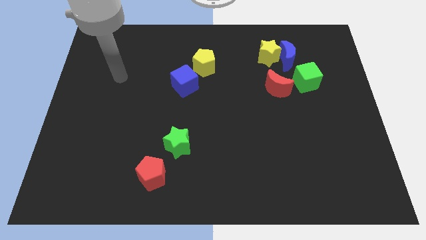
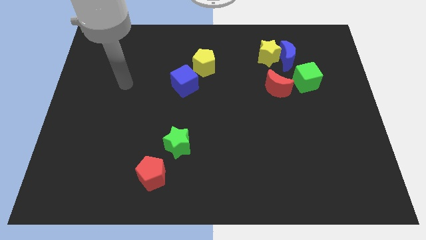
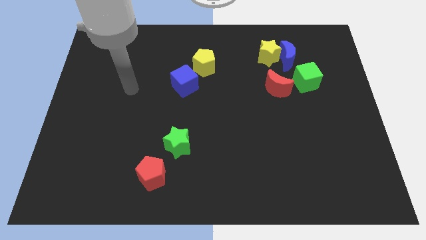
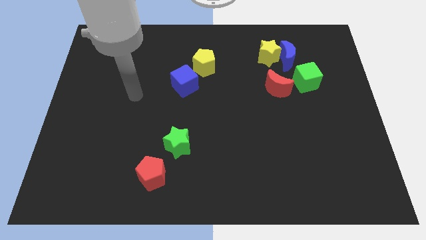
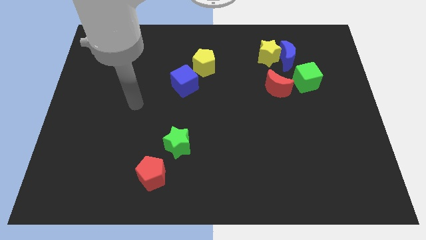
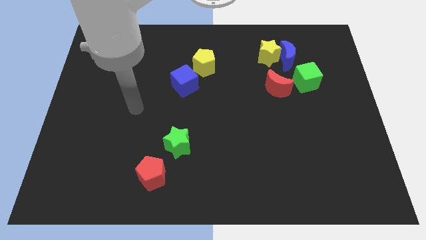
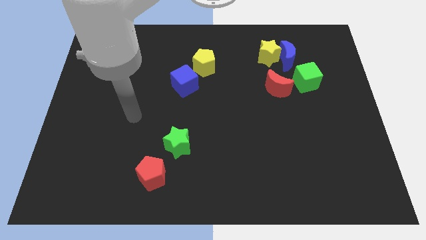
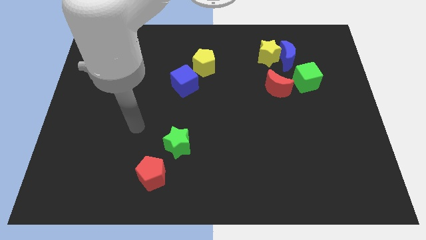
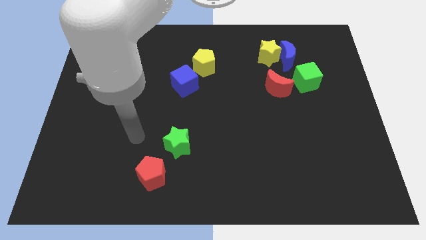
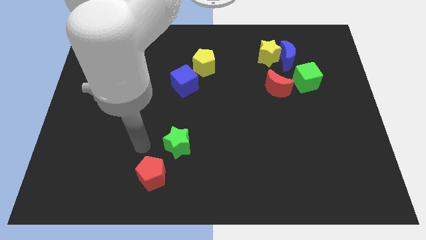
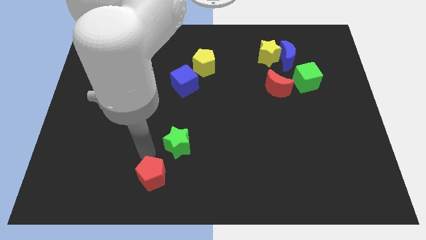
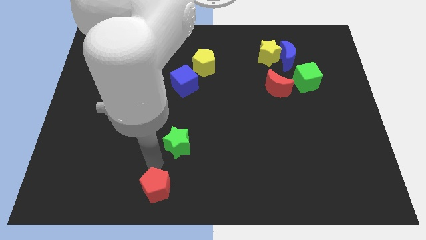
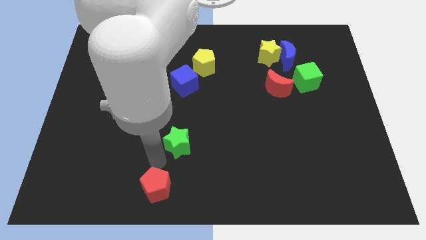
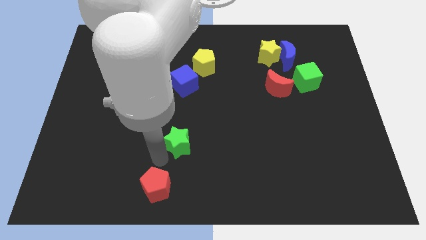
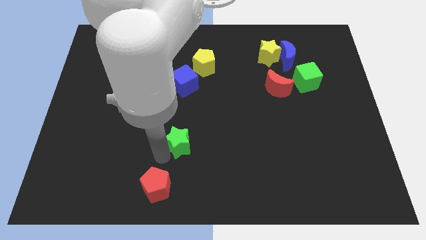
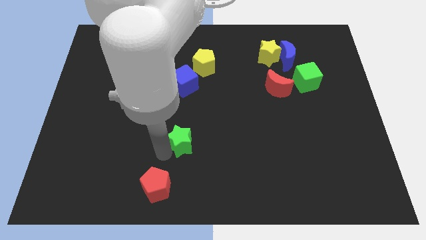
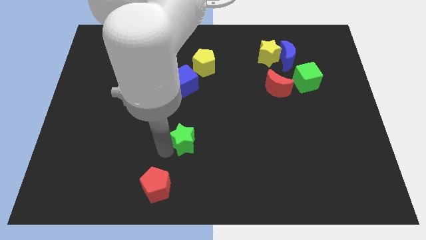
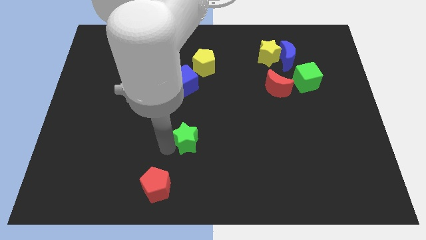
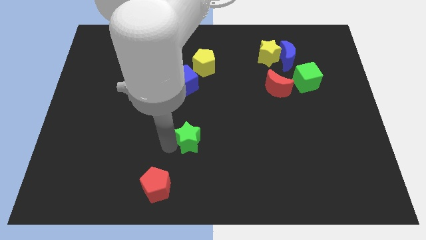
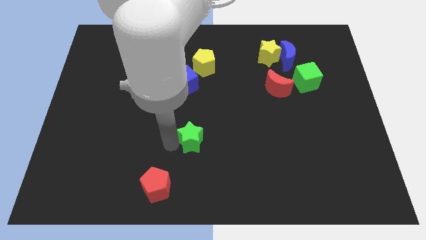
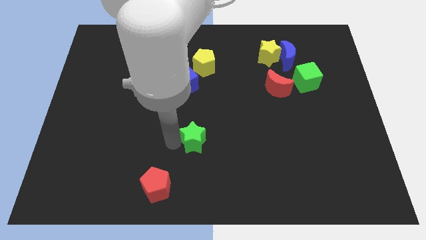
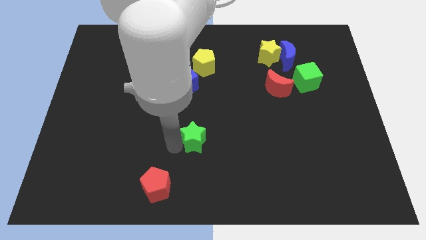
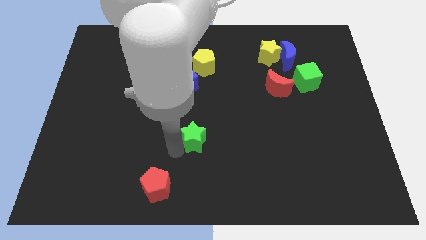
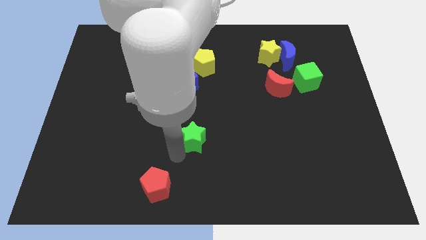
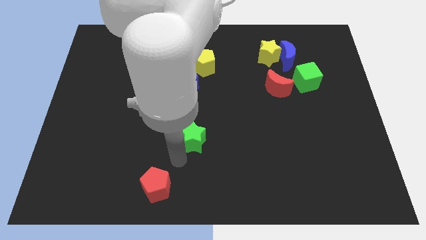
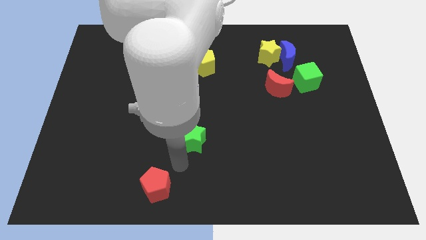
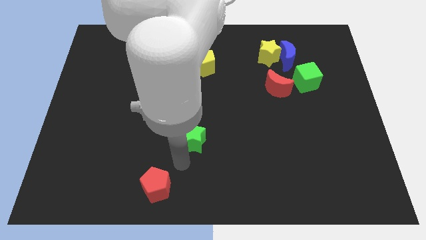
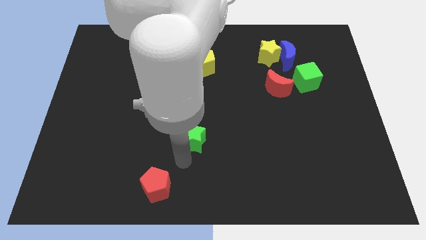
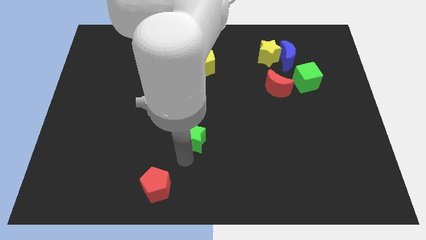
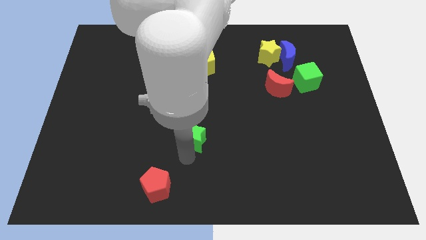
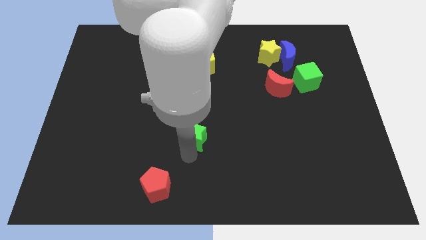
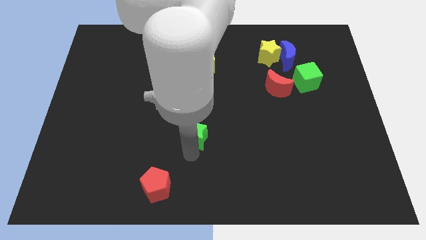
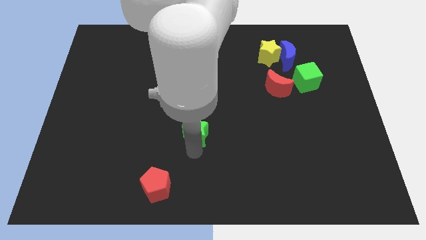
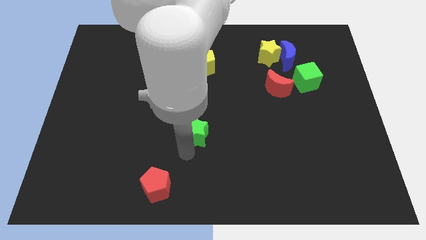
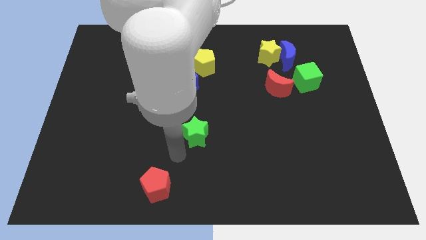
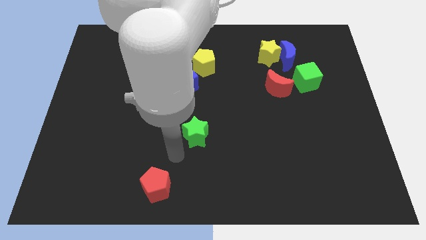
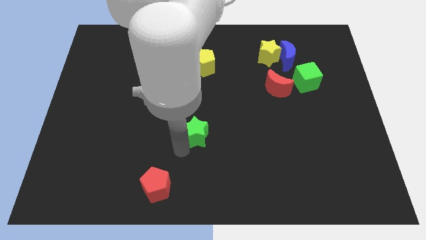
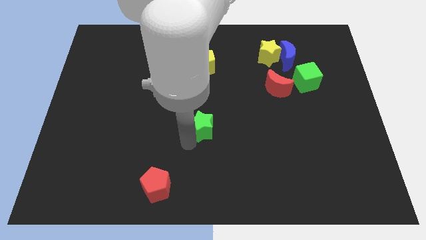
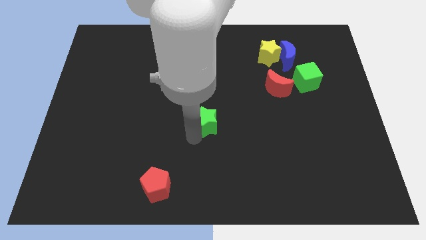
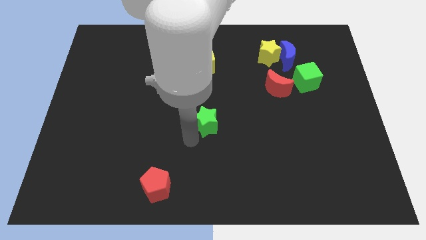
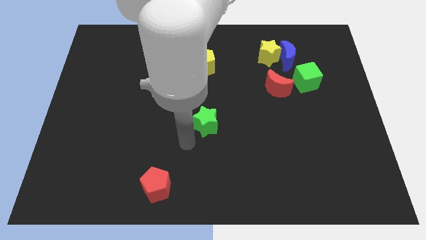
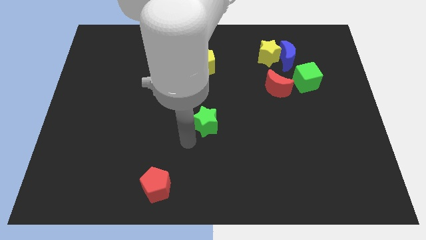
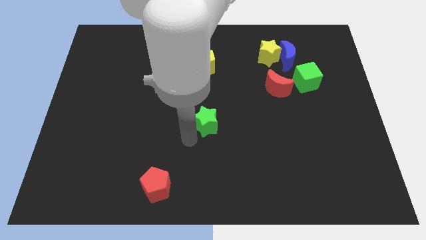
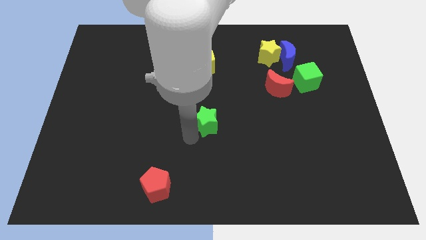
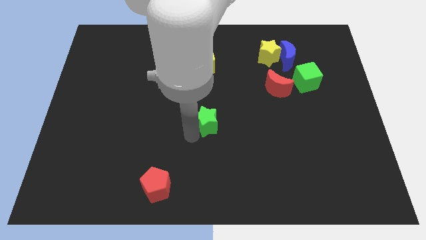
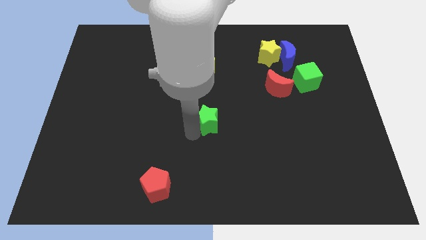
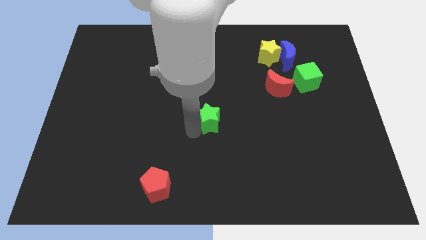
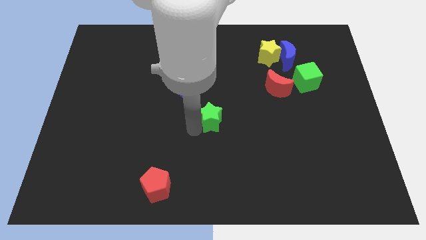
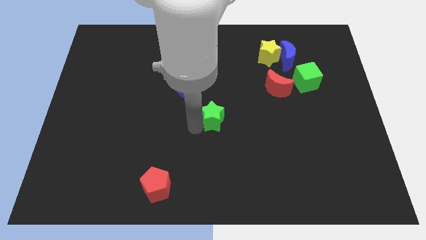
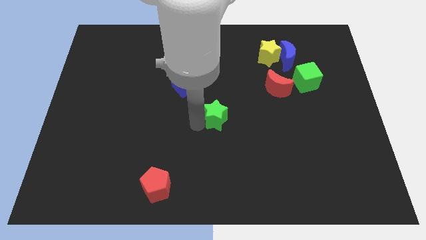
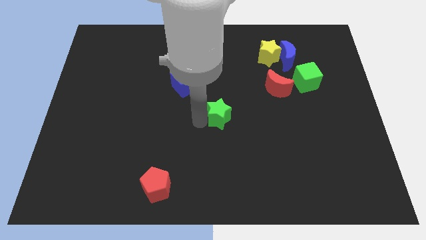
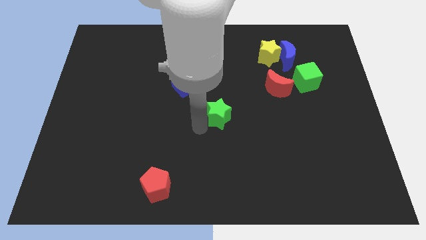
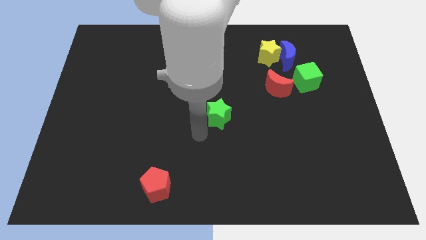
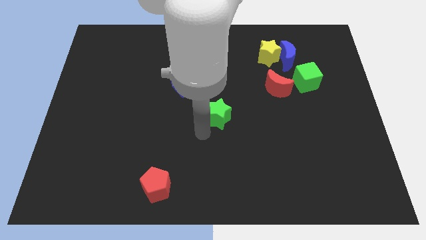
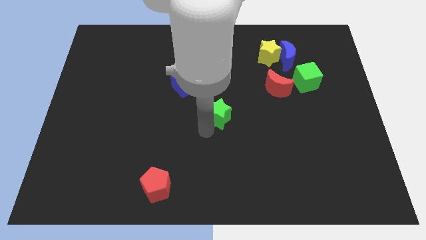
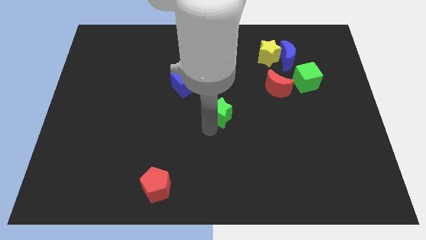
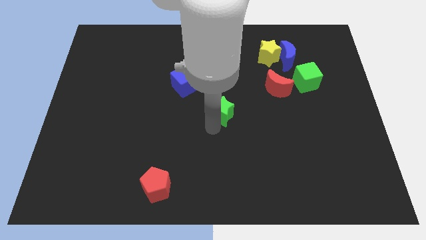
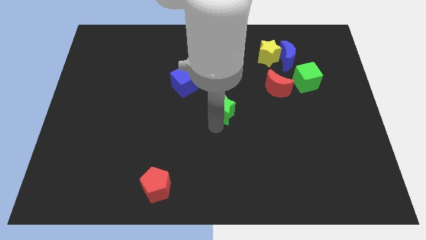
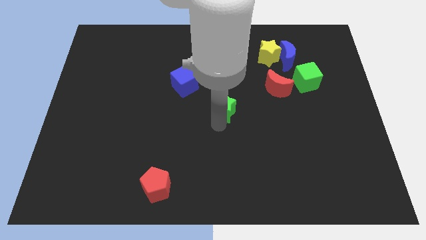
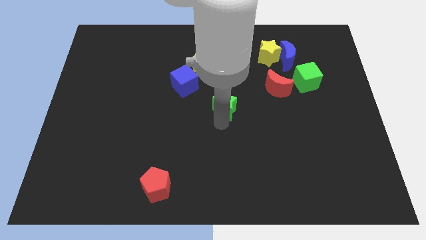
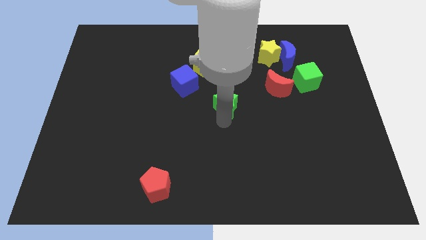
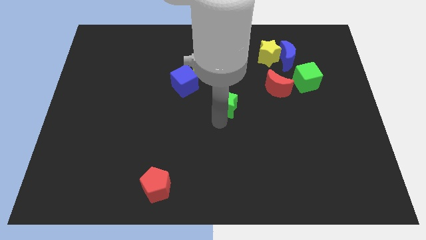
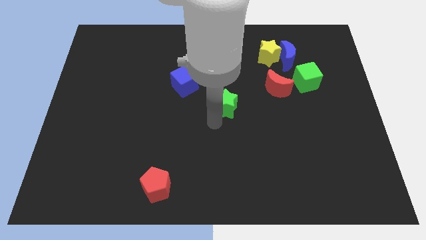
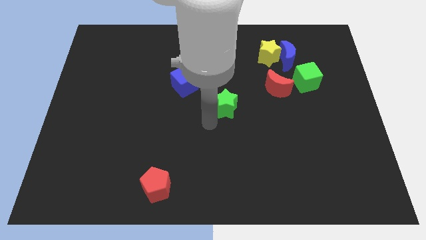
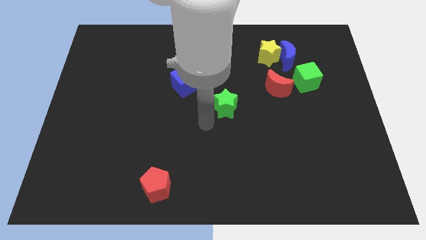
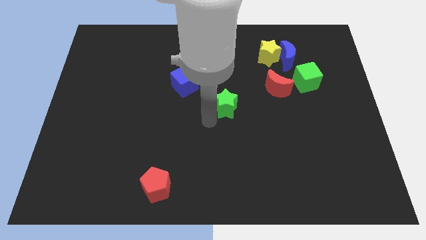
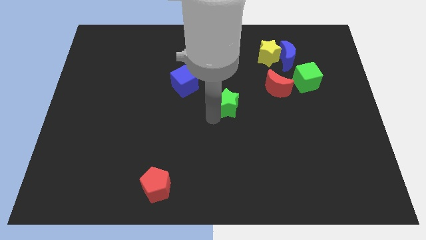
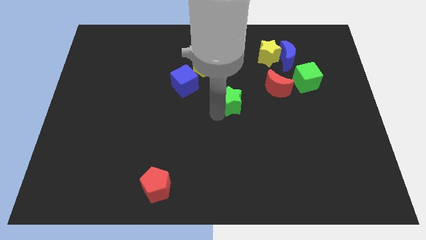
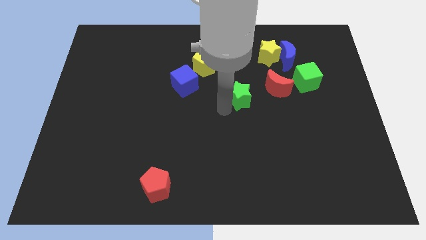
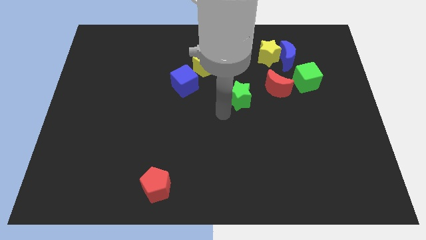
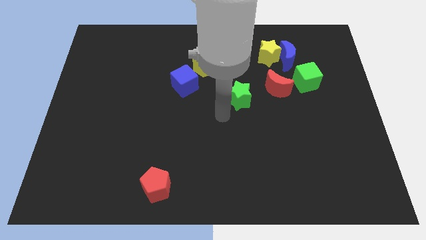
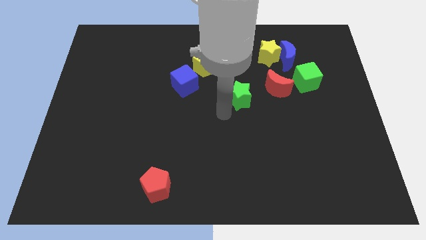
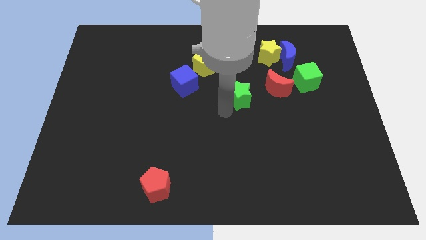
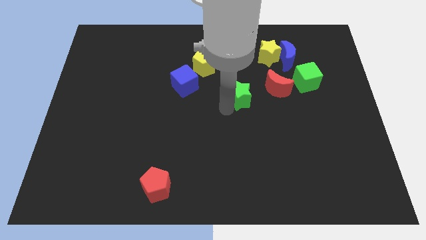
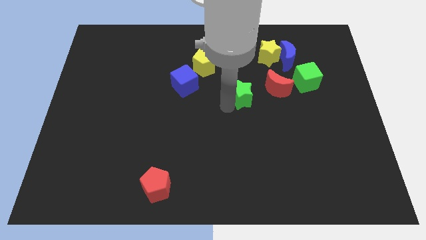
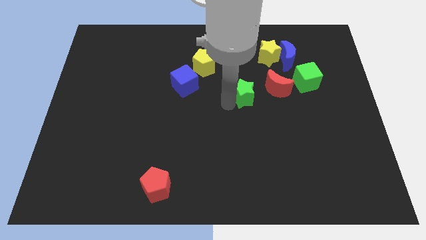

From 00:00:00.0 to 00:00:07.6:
slide the green star diagonally upwards and right

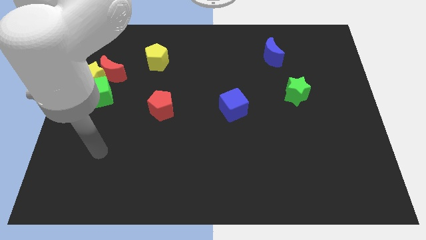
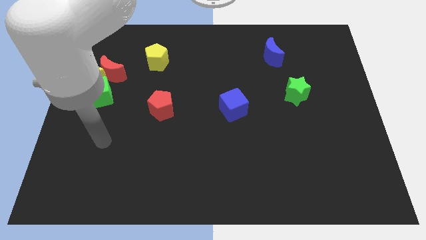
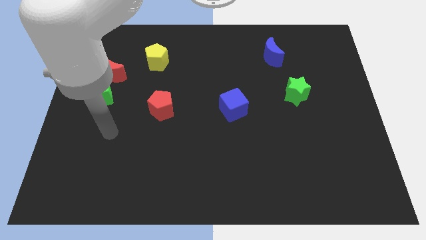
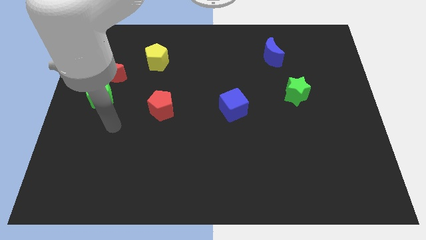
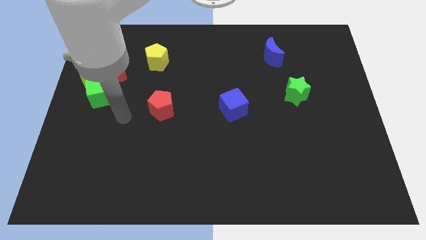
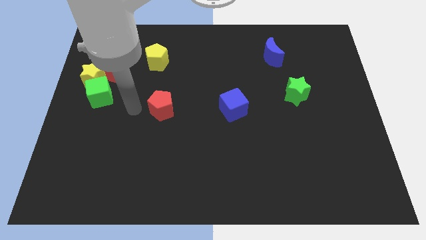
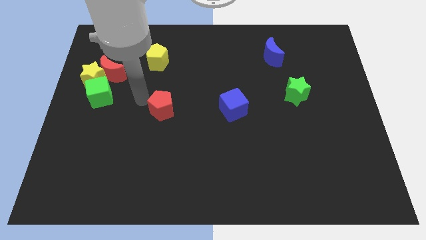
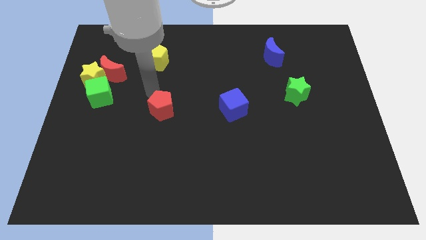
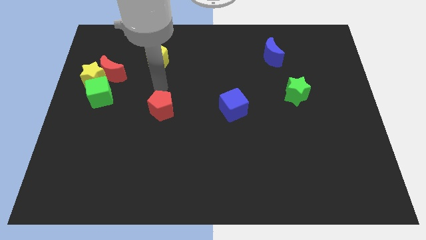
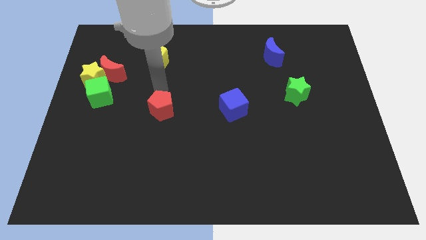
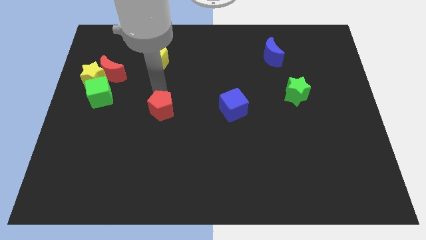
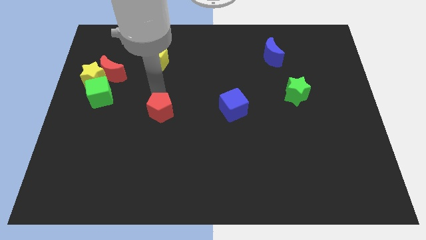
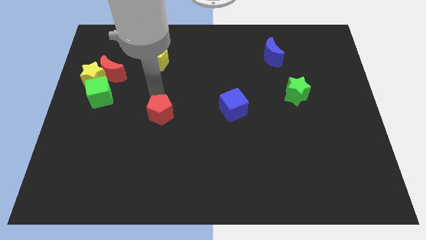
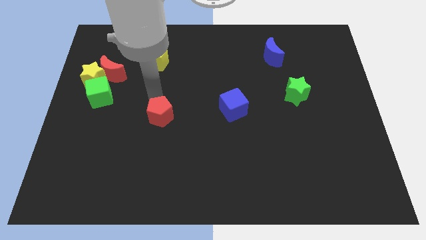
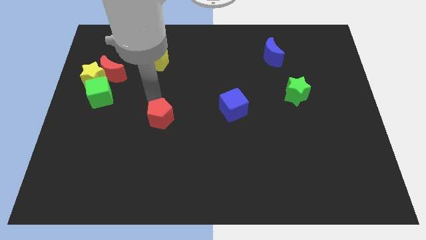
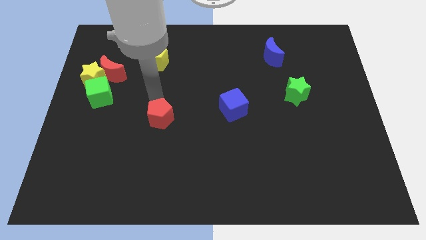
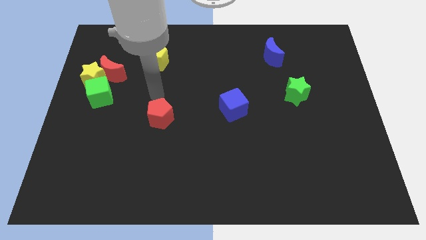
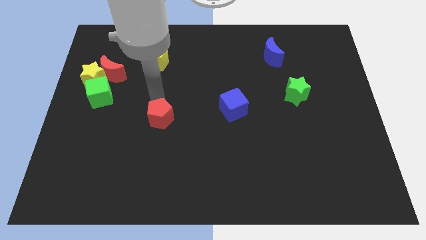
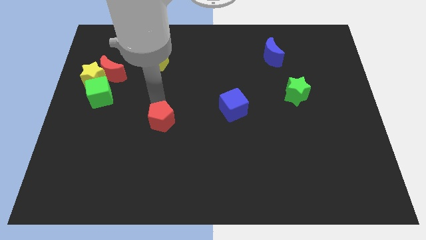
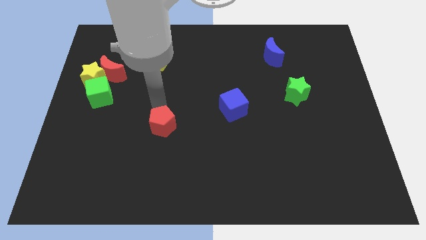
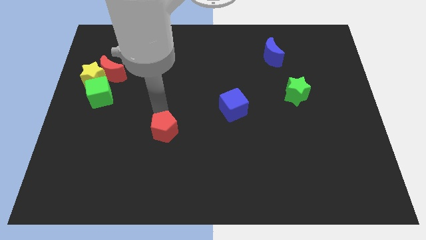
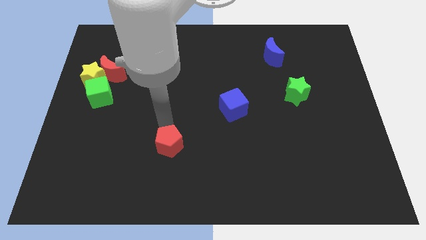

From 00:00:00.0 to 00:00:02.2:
slightly push the red pentagon down
